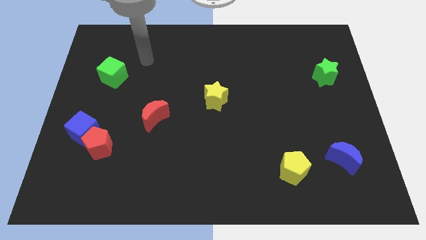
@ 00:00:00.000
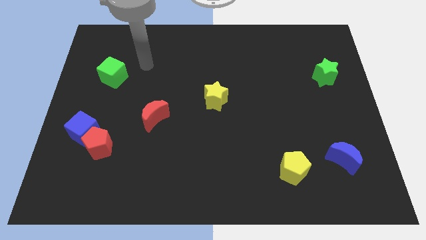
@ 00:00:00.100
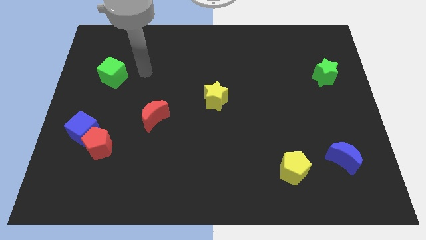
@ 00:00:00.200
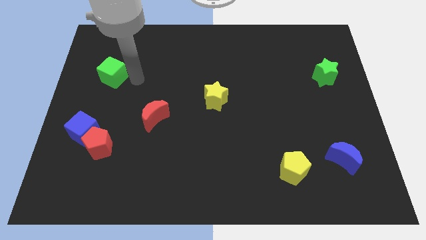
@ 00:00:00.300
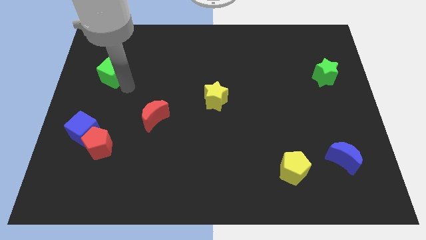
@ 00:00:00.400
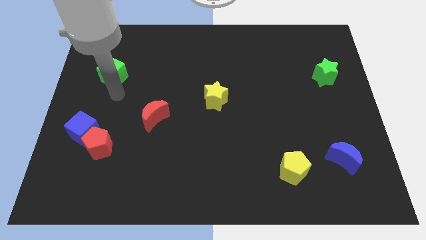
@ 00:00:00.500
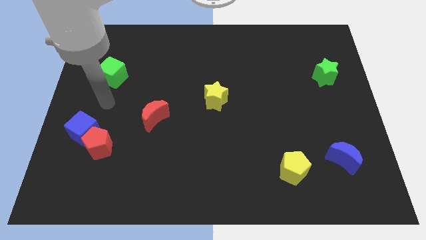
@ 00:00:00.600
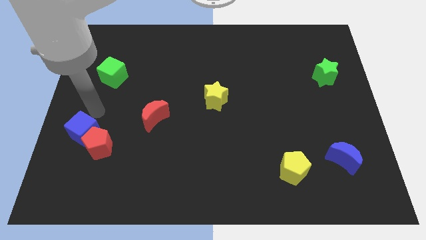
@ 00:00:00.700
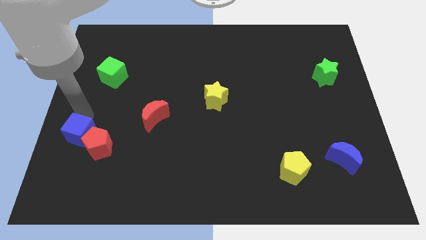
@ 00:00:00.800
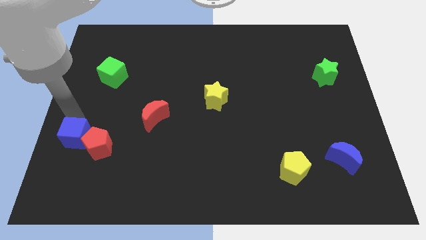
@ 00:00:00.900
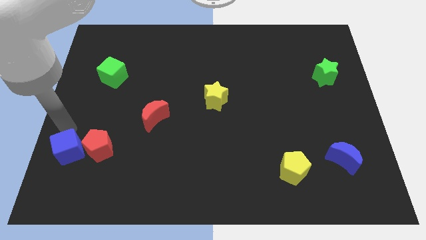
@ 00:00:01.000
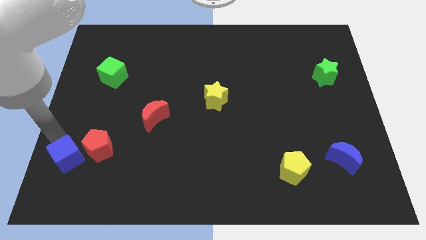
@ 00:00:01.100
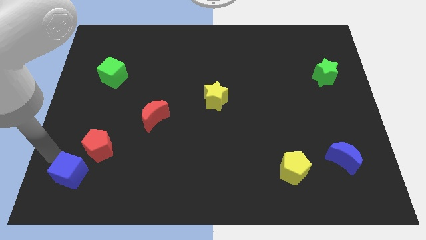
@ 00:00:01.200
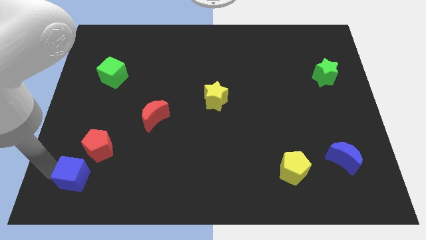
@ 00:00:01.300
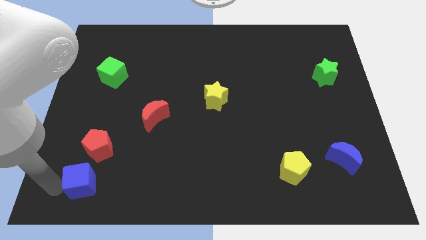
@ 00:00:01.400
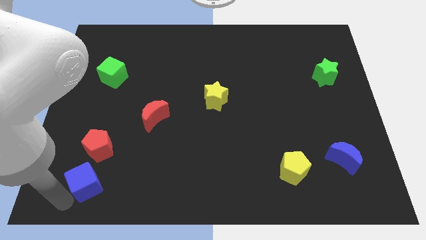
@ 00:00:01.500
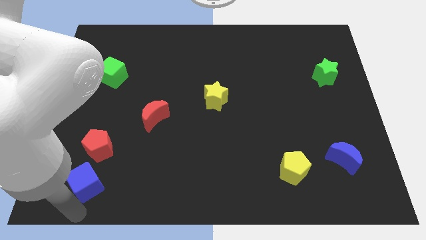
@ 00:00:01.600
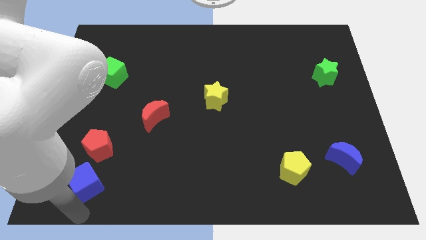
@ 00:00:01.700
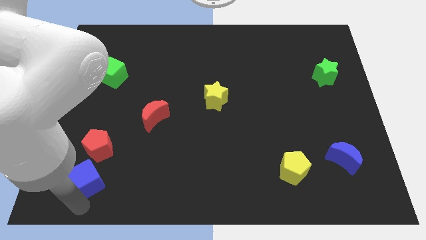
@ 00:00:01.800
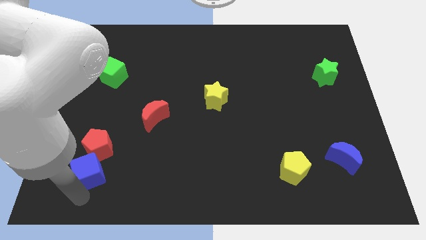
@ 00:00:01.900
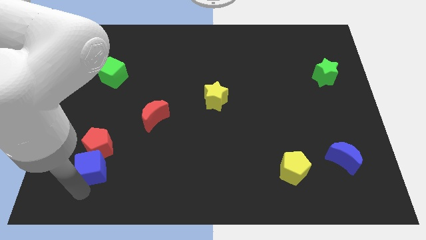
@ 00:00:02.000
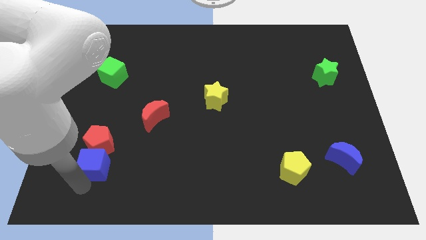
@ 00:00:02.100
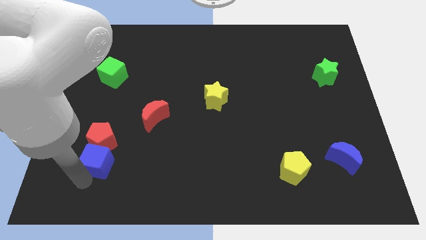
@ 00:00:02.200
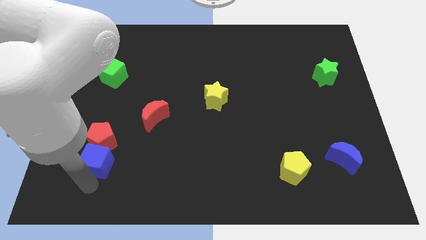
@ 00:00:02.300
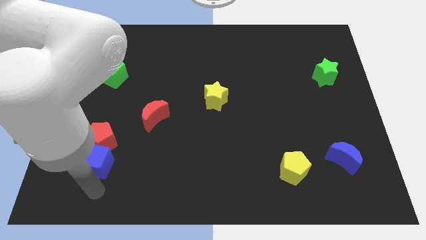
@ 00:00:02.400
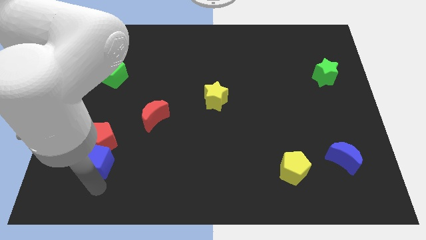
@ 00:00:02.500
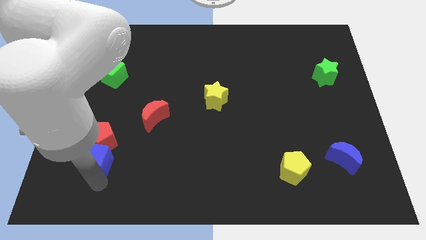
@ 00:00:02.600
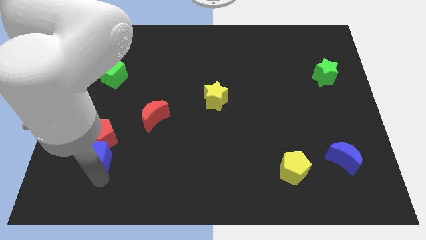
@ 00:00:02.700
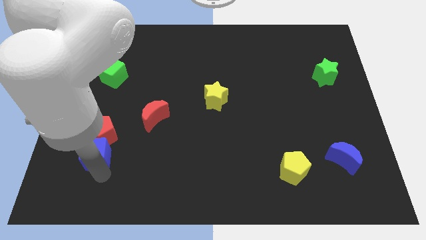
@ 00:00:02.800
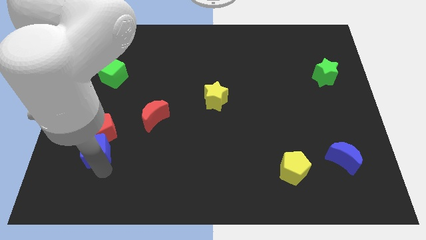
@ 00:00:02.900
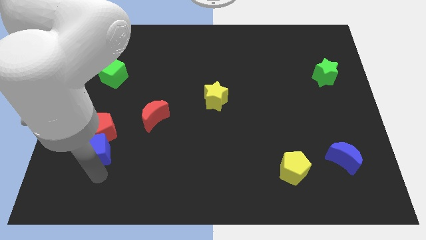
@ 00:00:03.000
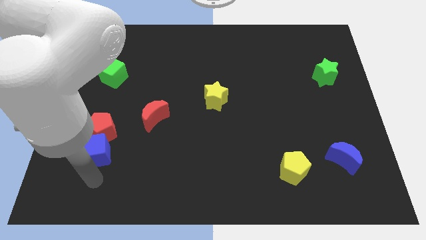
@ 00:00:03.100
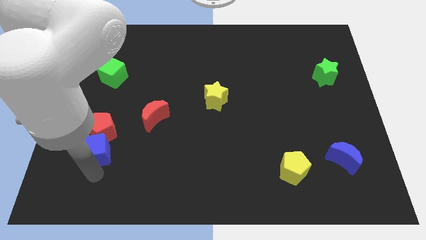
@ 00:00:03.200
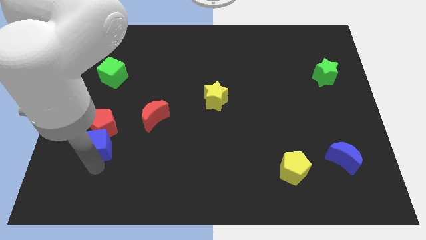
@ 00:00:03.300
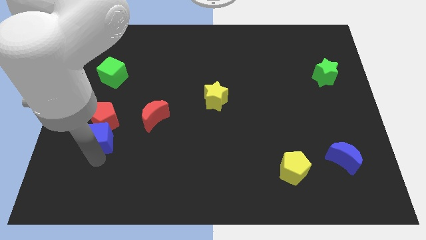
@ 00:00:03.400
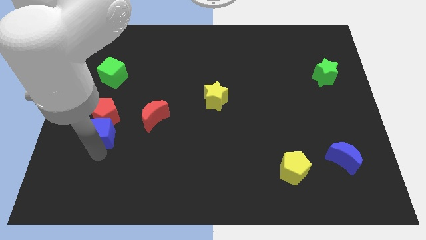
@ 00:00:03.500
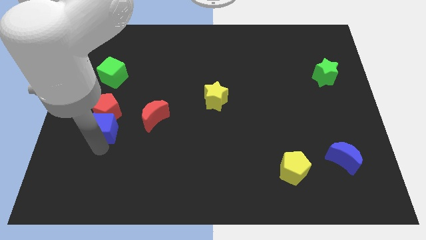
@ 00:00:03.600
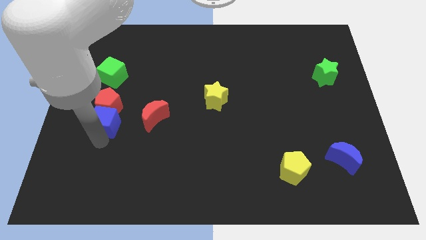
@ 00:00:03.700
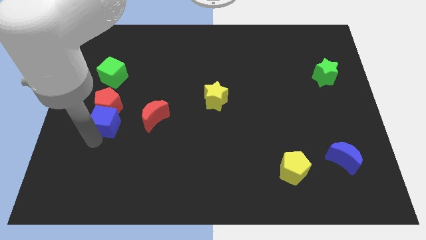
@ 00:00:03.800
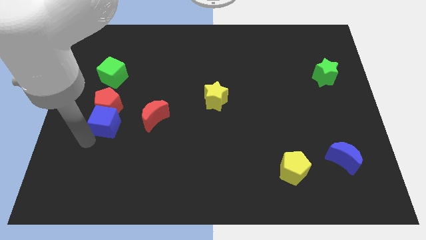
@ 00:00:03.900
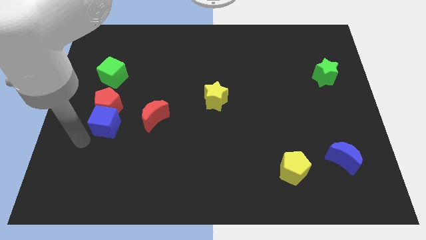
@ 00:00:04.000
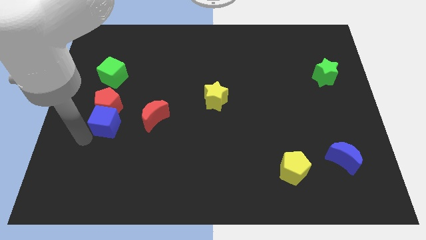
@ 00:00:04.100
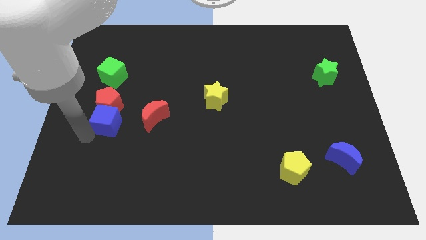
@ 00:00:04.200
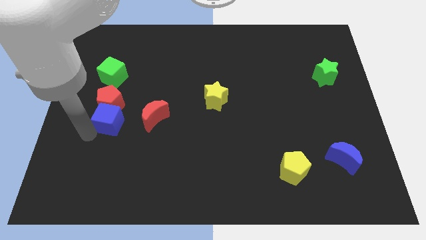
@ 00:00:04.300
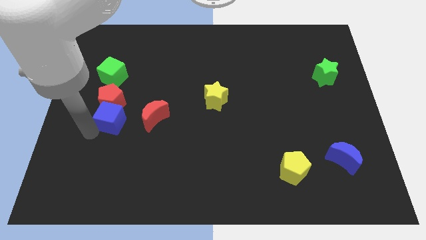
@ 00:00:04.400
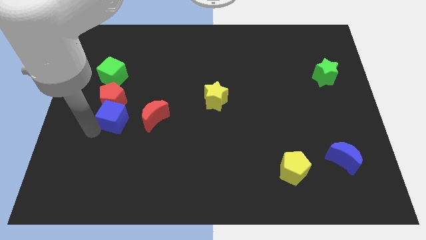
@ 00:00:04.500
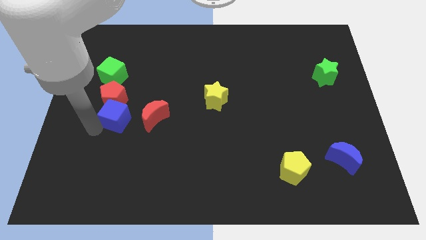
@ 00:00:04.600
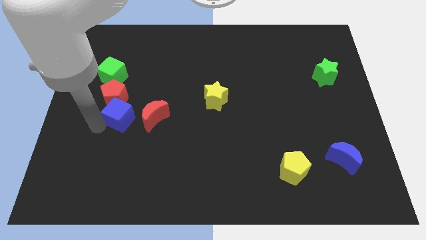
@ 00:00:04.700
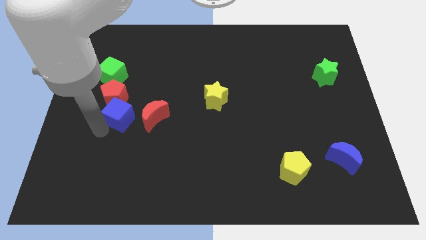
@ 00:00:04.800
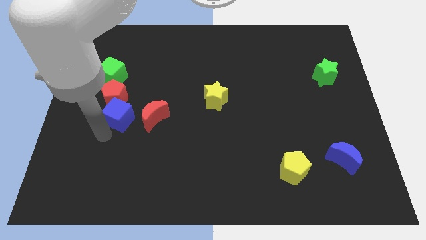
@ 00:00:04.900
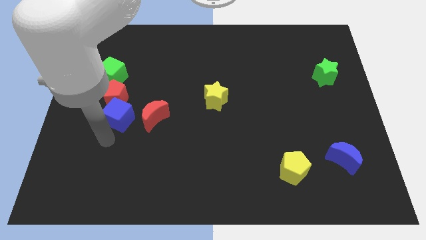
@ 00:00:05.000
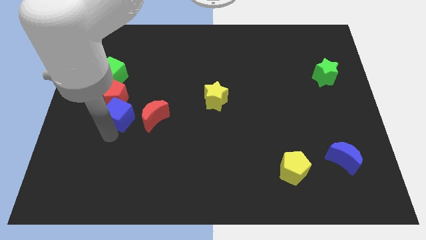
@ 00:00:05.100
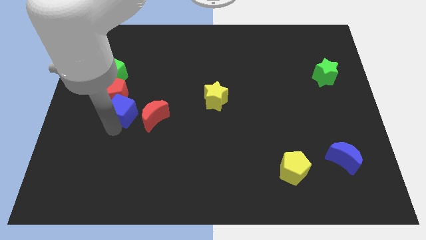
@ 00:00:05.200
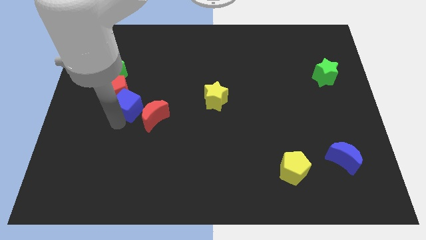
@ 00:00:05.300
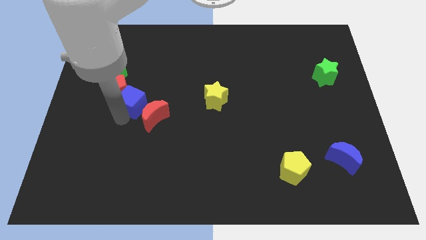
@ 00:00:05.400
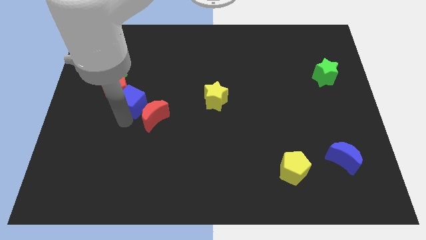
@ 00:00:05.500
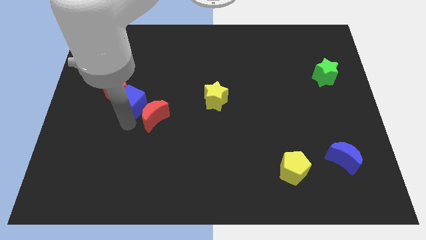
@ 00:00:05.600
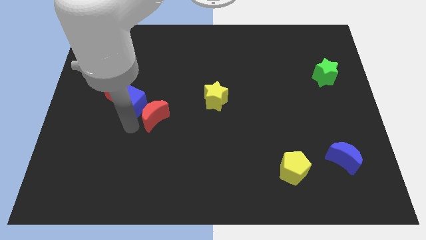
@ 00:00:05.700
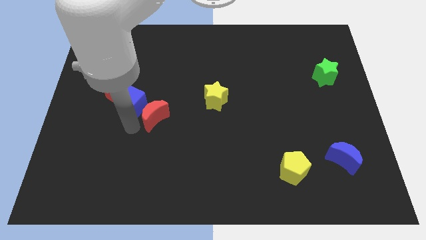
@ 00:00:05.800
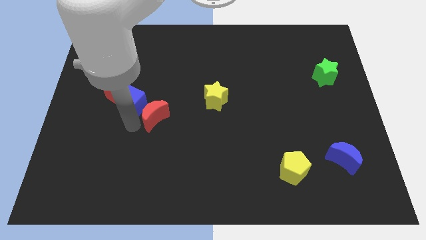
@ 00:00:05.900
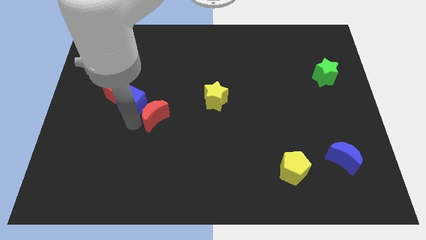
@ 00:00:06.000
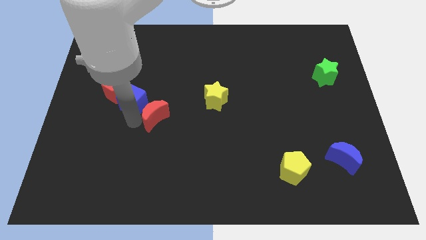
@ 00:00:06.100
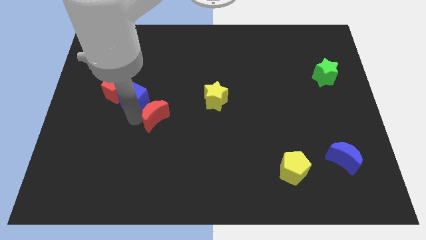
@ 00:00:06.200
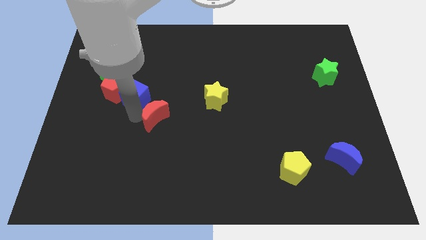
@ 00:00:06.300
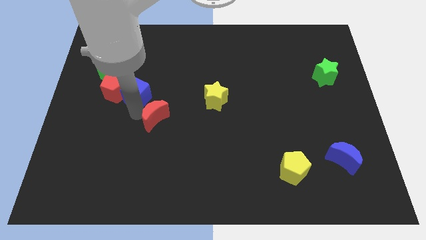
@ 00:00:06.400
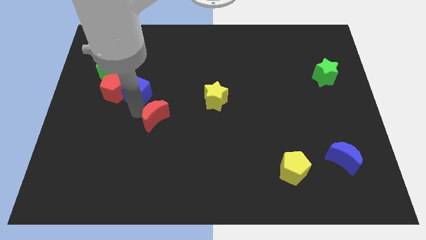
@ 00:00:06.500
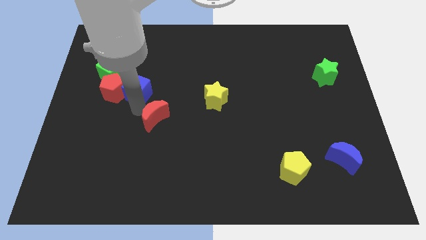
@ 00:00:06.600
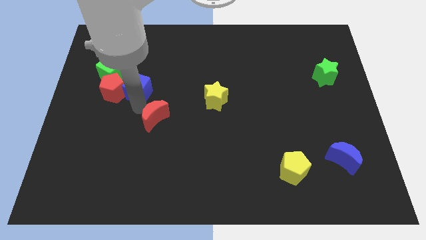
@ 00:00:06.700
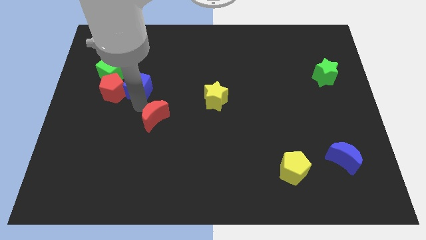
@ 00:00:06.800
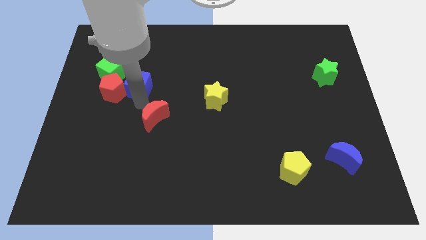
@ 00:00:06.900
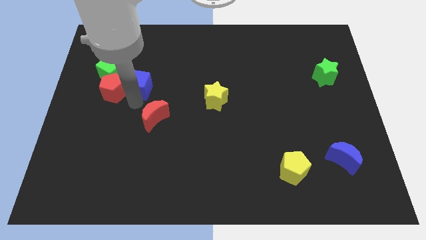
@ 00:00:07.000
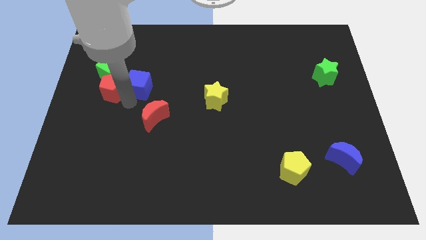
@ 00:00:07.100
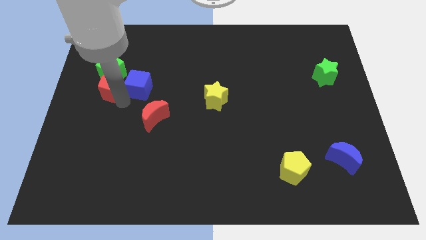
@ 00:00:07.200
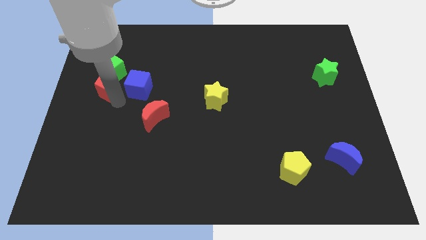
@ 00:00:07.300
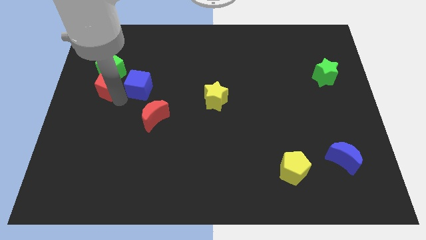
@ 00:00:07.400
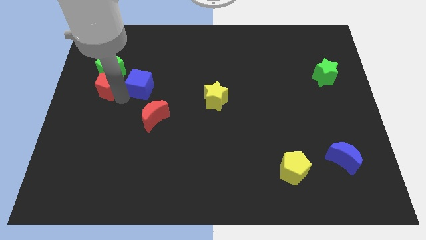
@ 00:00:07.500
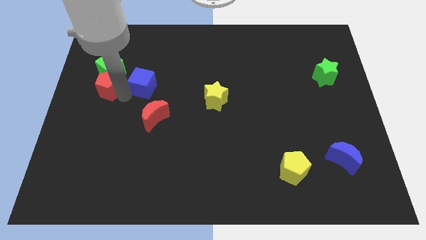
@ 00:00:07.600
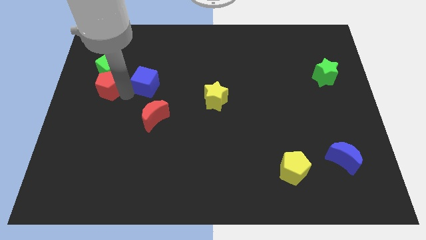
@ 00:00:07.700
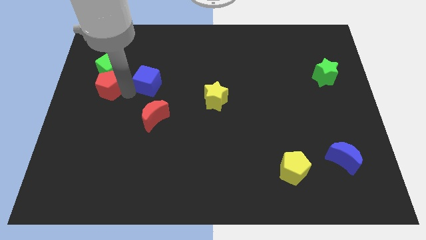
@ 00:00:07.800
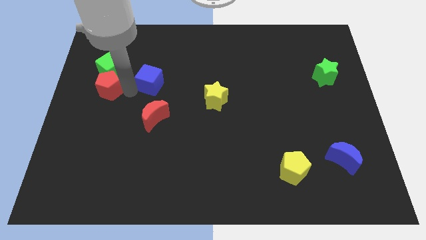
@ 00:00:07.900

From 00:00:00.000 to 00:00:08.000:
push the blue cube diagonally up and to the right
